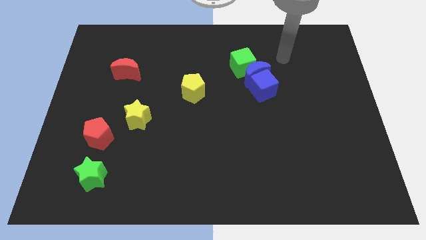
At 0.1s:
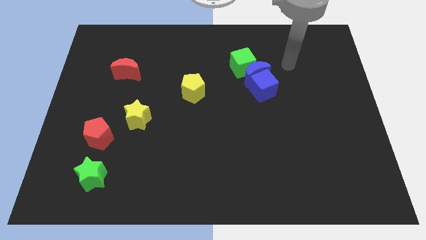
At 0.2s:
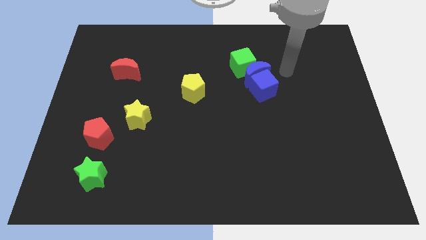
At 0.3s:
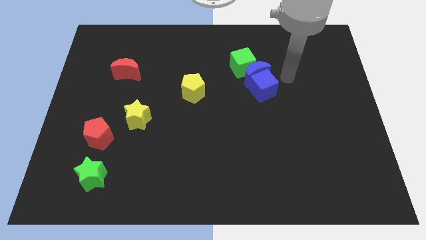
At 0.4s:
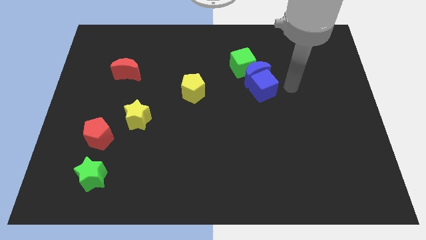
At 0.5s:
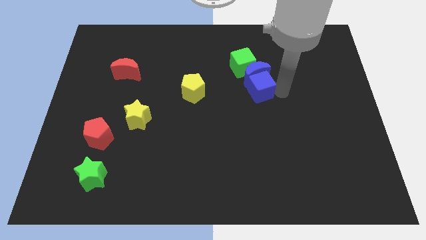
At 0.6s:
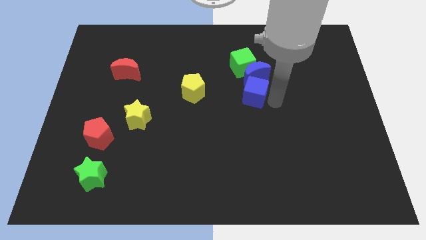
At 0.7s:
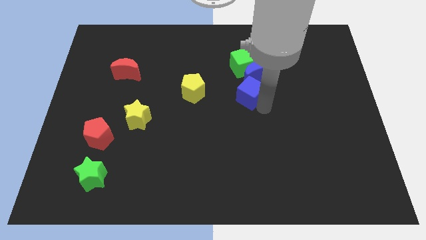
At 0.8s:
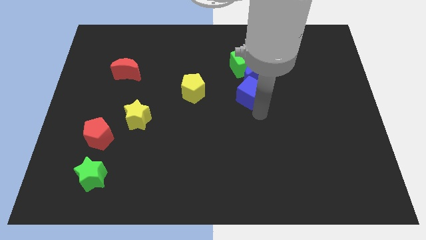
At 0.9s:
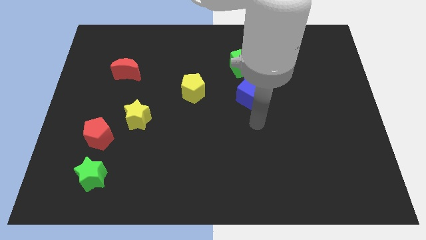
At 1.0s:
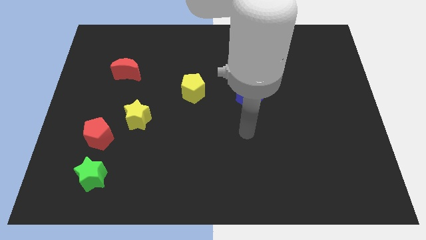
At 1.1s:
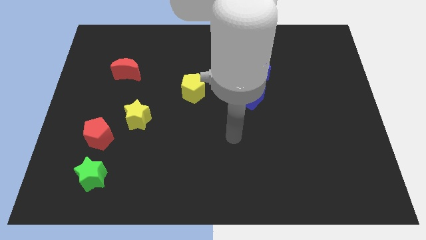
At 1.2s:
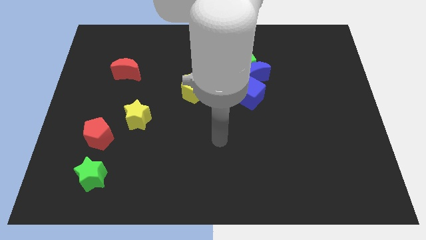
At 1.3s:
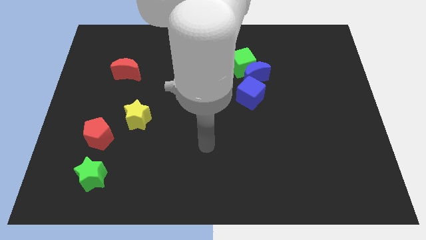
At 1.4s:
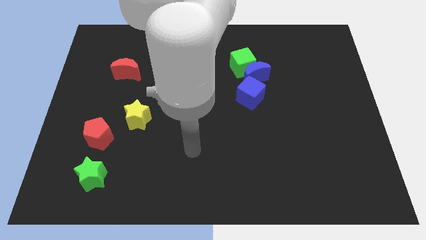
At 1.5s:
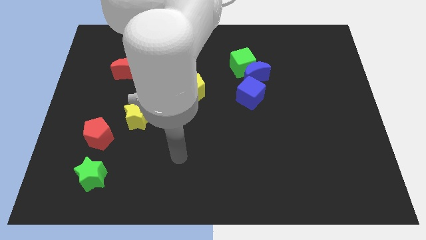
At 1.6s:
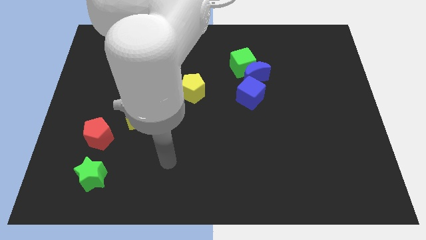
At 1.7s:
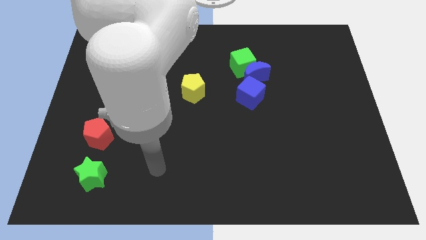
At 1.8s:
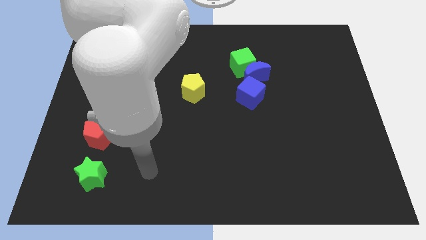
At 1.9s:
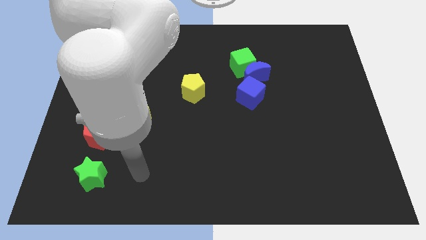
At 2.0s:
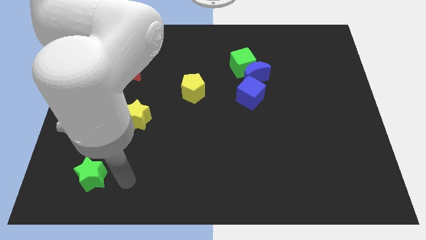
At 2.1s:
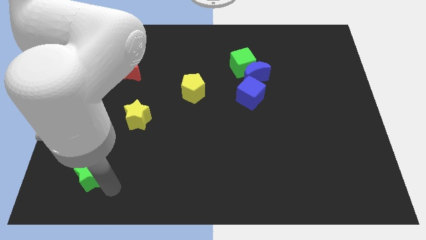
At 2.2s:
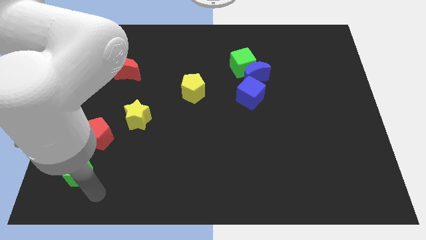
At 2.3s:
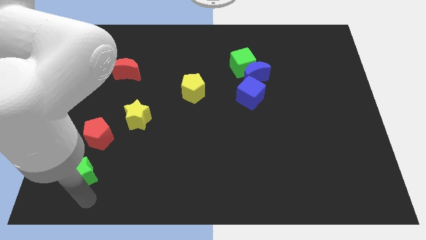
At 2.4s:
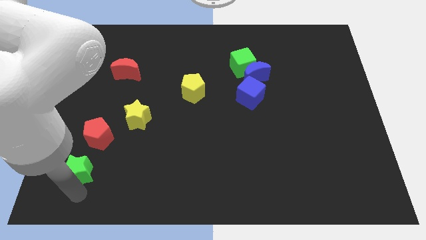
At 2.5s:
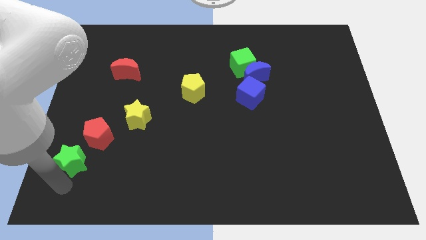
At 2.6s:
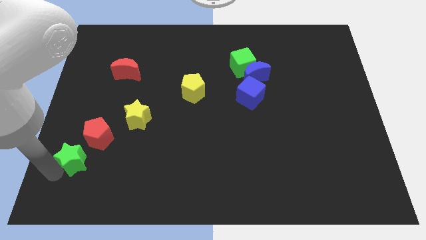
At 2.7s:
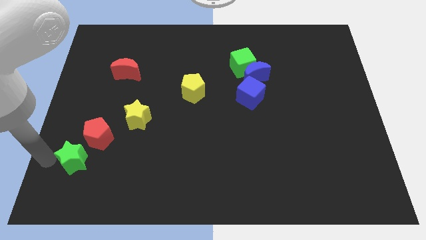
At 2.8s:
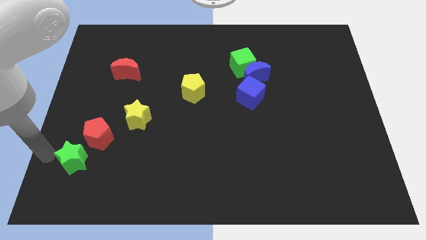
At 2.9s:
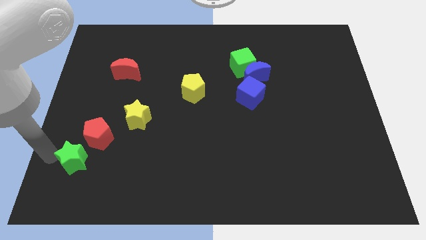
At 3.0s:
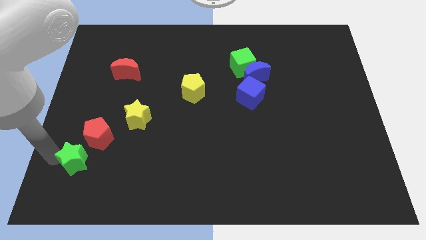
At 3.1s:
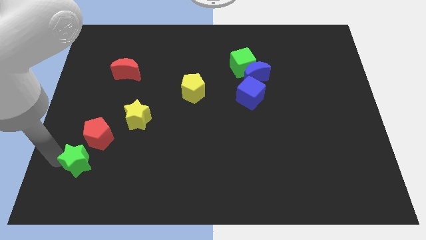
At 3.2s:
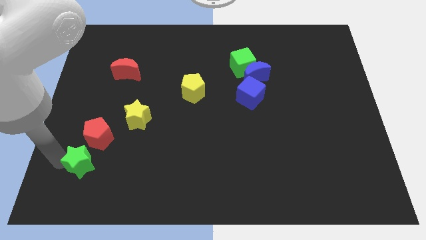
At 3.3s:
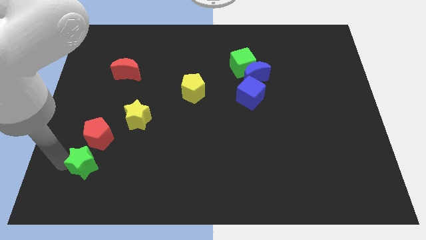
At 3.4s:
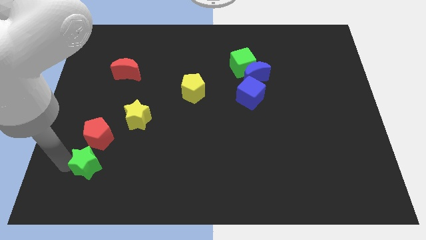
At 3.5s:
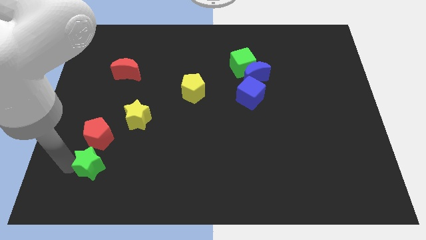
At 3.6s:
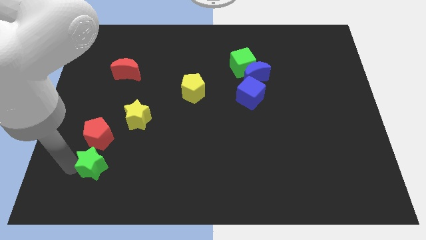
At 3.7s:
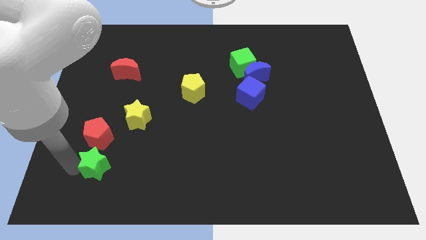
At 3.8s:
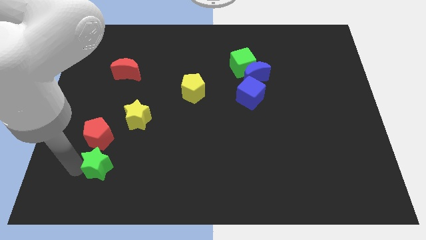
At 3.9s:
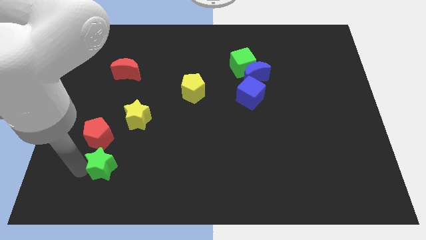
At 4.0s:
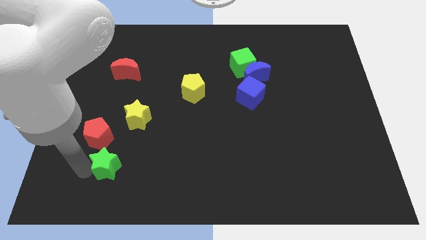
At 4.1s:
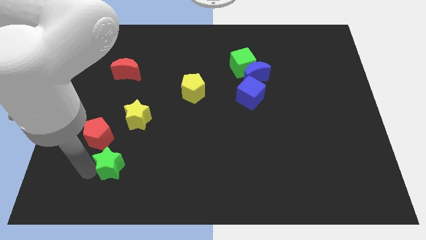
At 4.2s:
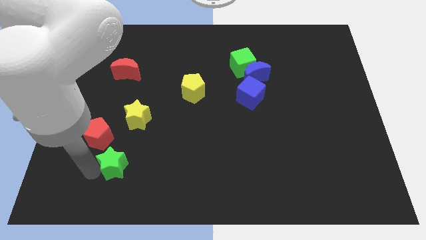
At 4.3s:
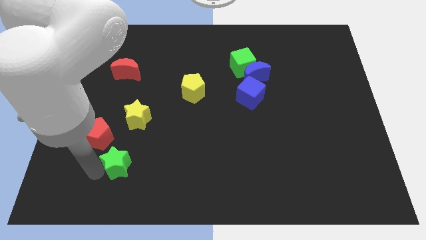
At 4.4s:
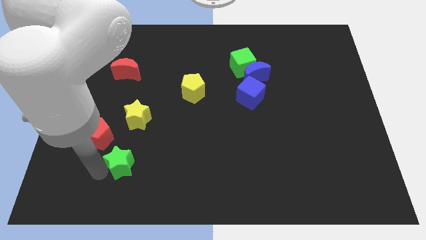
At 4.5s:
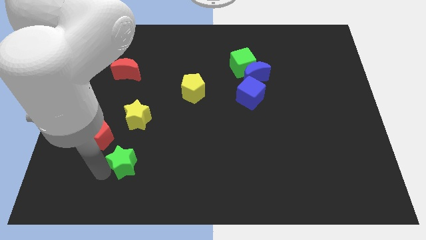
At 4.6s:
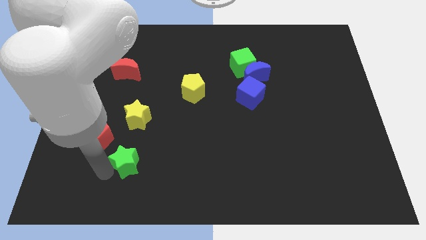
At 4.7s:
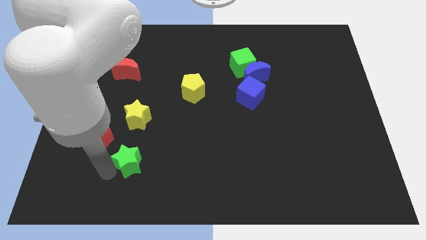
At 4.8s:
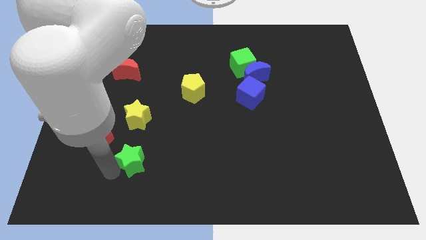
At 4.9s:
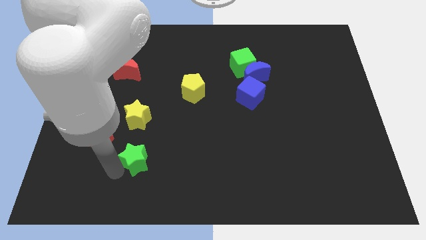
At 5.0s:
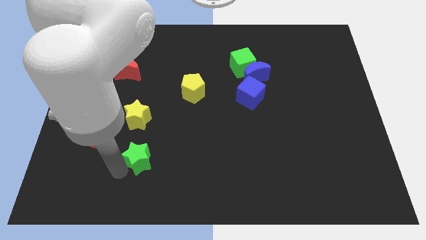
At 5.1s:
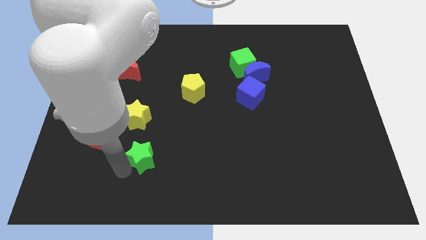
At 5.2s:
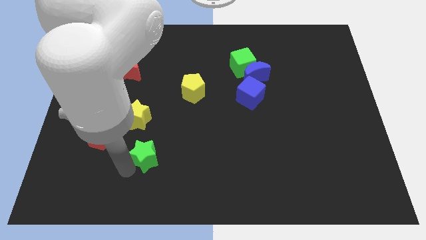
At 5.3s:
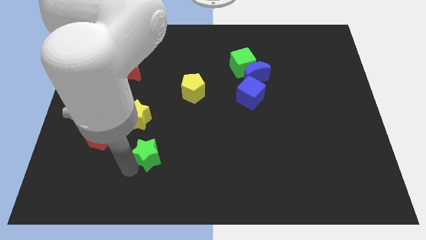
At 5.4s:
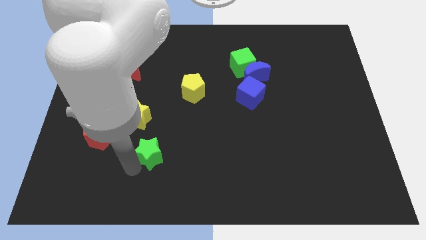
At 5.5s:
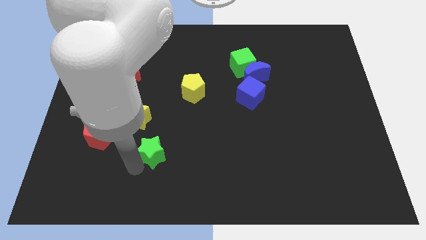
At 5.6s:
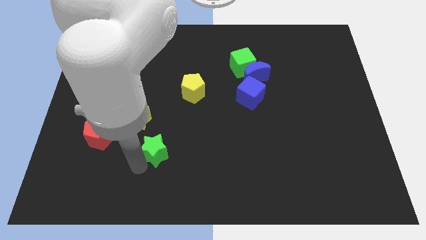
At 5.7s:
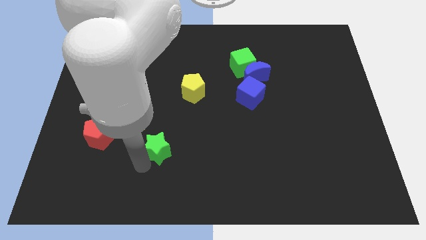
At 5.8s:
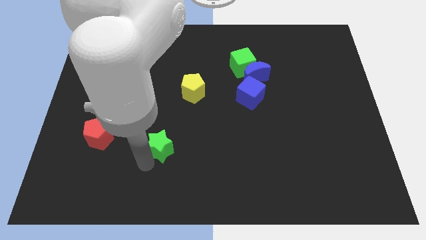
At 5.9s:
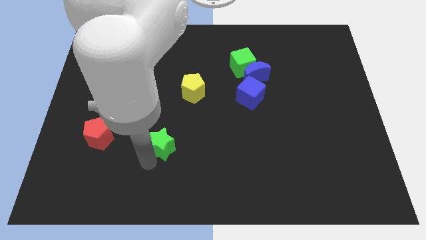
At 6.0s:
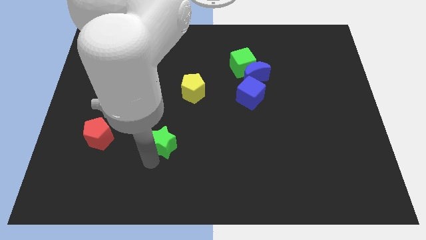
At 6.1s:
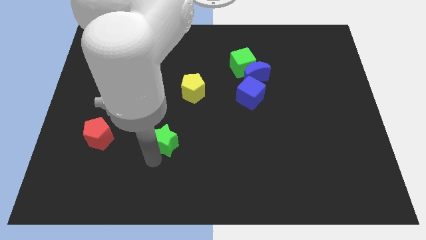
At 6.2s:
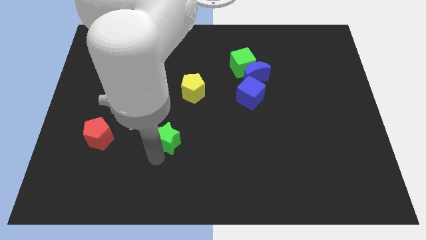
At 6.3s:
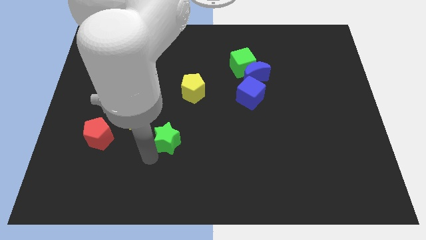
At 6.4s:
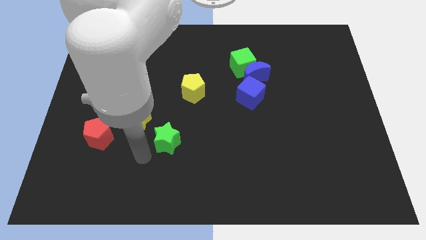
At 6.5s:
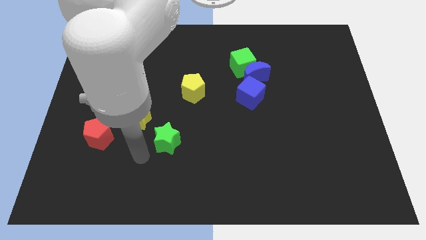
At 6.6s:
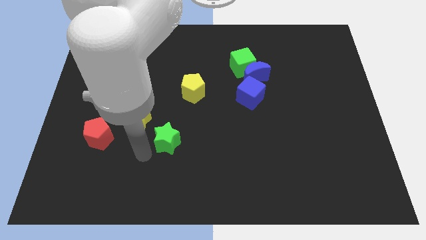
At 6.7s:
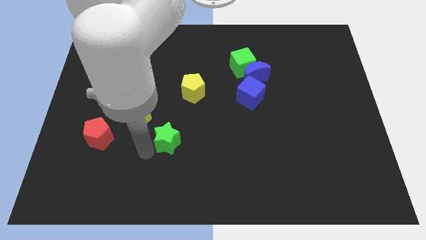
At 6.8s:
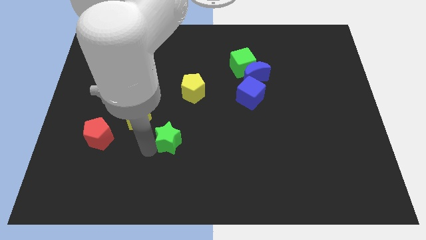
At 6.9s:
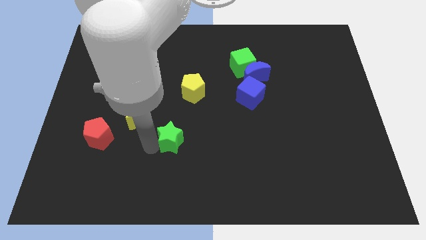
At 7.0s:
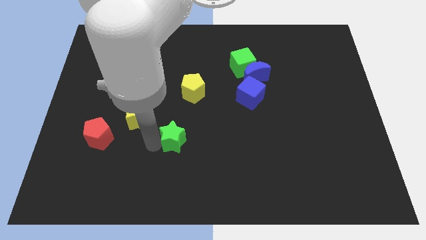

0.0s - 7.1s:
put the green star to the bottom side of the yellow pentagon

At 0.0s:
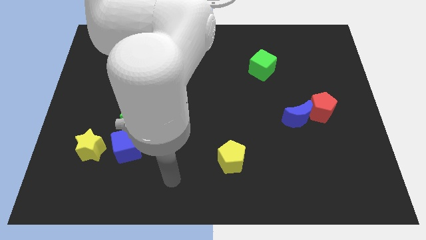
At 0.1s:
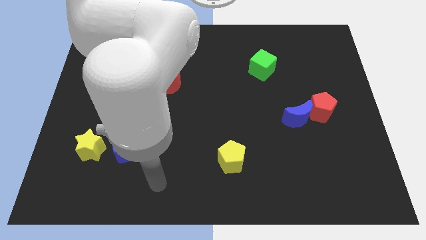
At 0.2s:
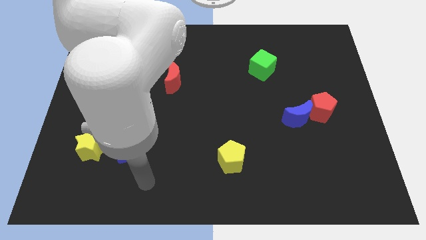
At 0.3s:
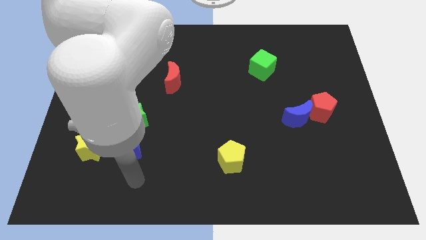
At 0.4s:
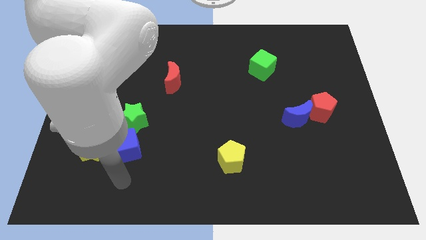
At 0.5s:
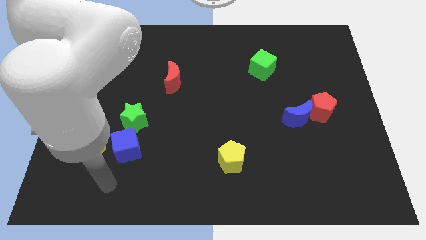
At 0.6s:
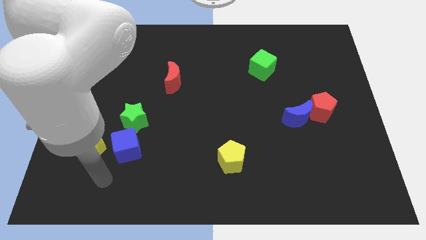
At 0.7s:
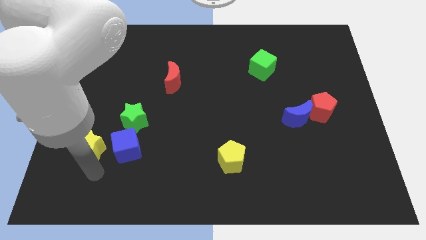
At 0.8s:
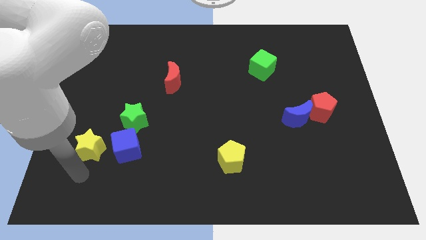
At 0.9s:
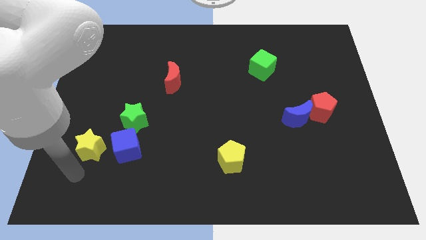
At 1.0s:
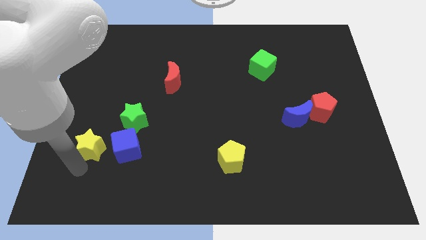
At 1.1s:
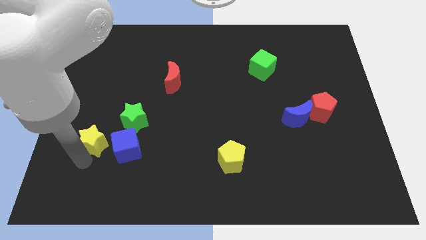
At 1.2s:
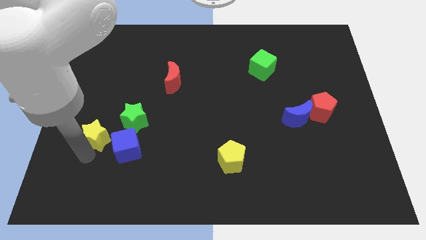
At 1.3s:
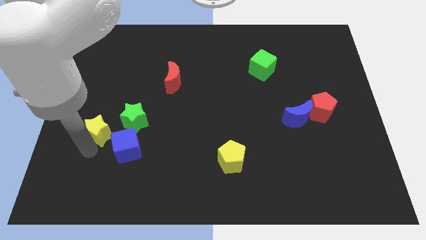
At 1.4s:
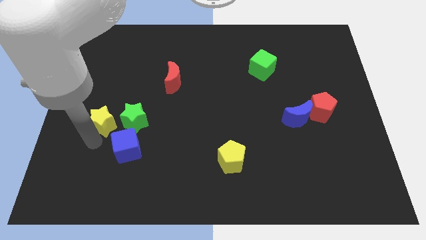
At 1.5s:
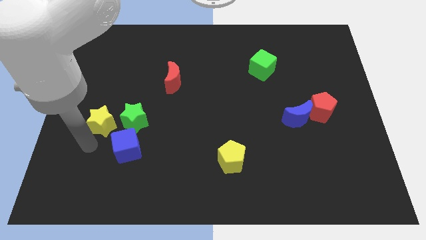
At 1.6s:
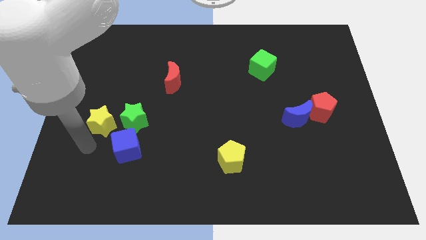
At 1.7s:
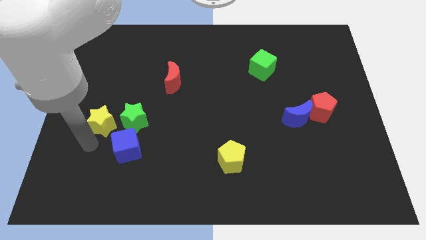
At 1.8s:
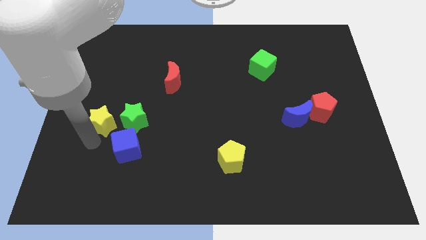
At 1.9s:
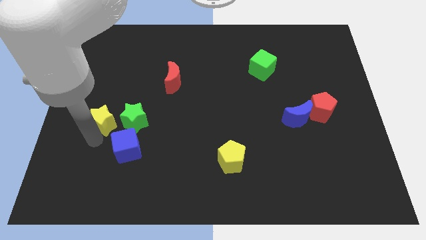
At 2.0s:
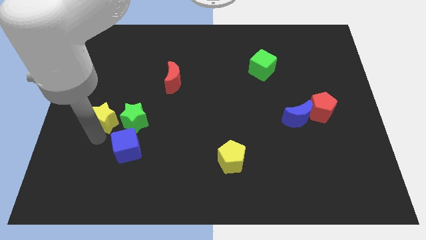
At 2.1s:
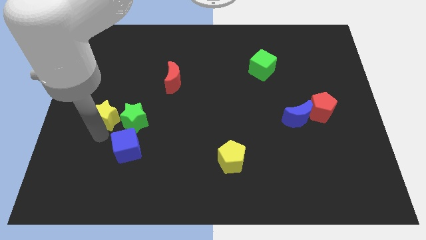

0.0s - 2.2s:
move the yellow star to the top left side of the green star
